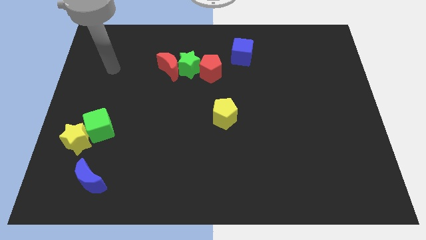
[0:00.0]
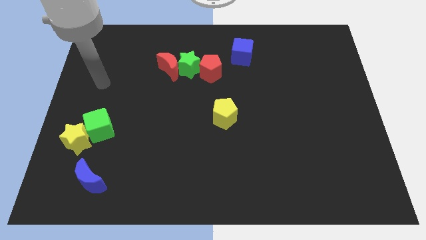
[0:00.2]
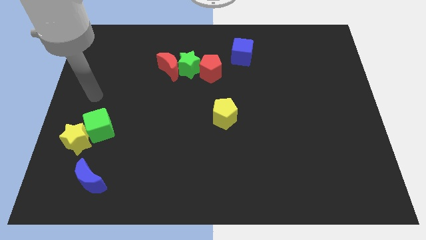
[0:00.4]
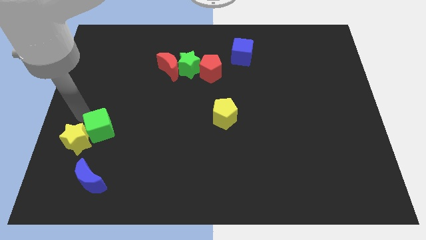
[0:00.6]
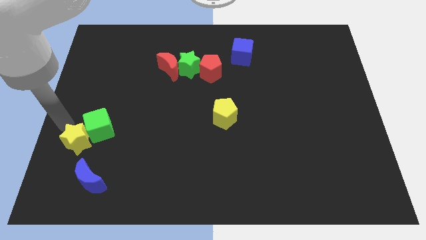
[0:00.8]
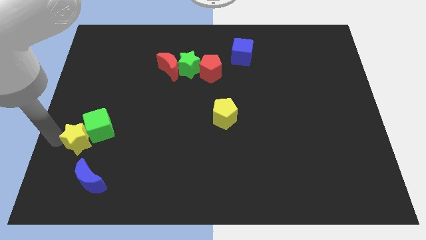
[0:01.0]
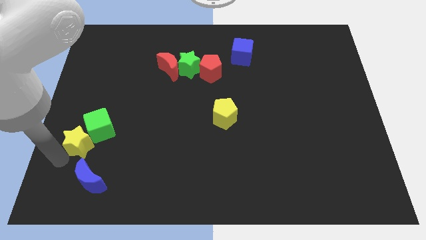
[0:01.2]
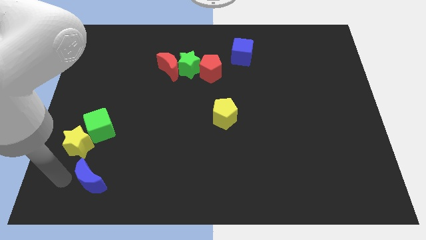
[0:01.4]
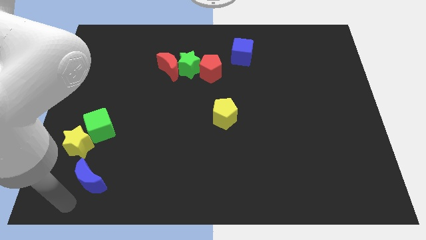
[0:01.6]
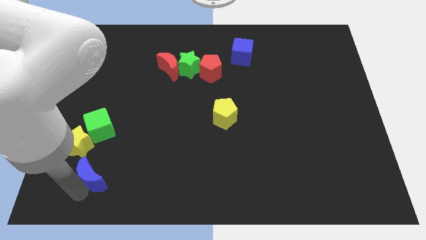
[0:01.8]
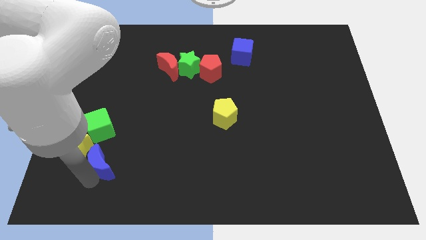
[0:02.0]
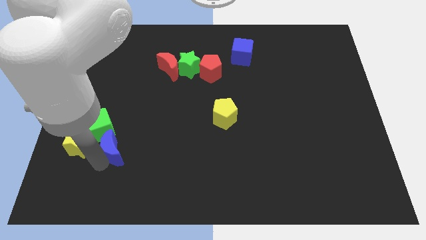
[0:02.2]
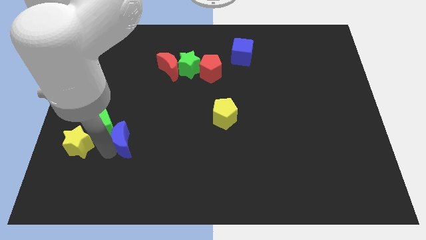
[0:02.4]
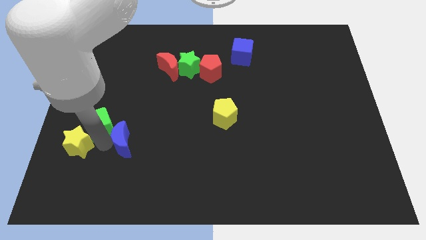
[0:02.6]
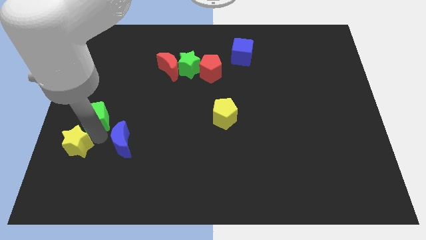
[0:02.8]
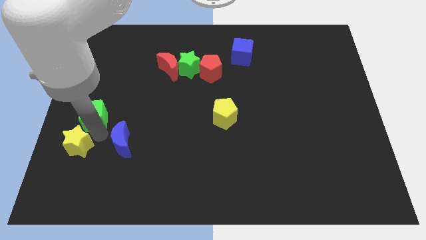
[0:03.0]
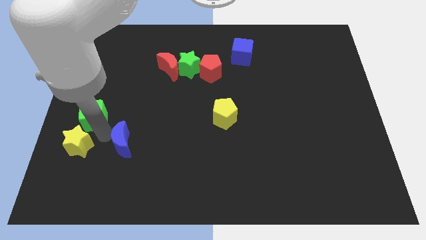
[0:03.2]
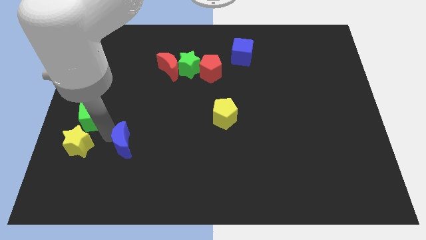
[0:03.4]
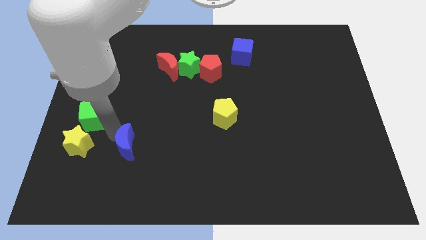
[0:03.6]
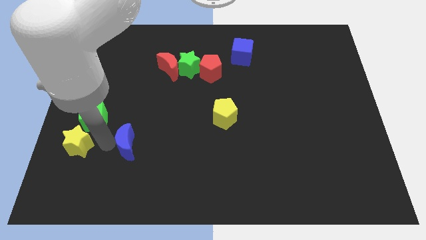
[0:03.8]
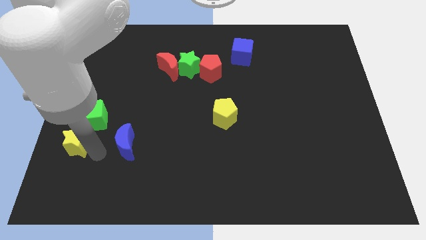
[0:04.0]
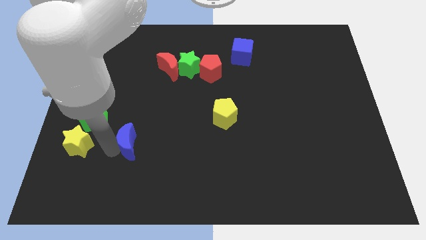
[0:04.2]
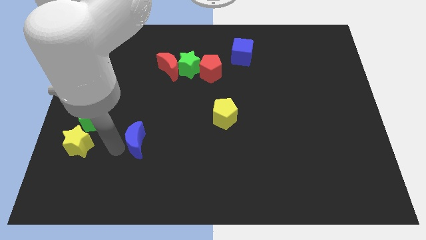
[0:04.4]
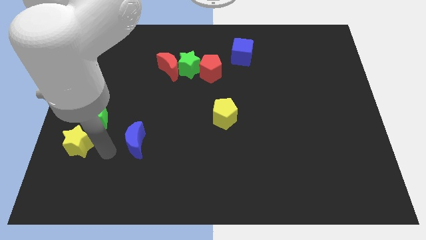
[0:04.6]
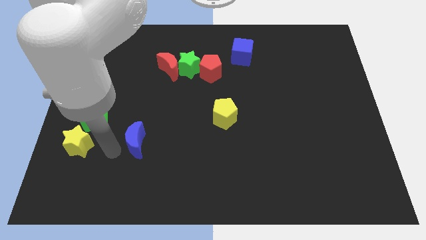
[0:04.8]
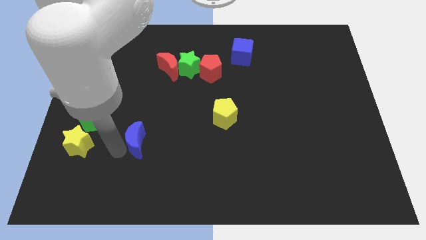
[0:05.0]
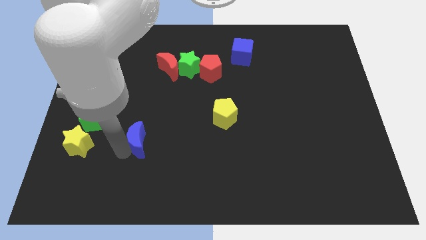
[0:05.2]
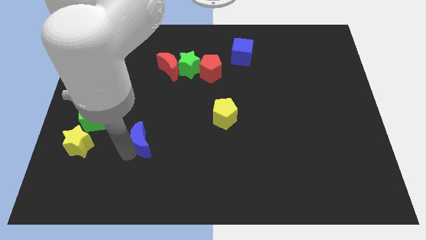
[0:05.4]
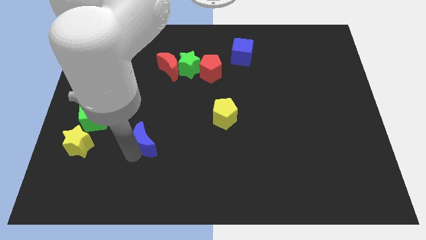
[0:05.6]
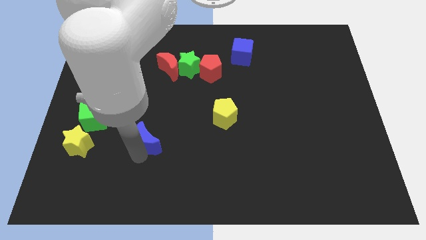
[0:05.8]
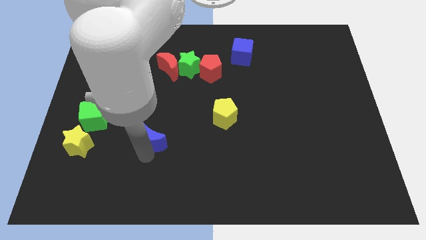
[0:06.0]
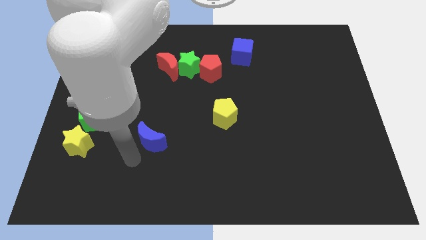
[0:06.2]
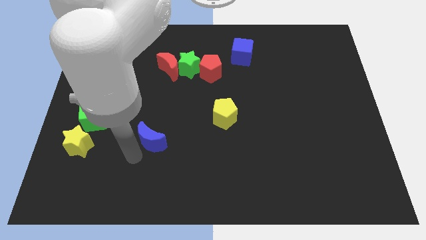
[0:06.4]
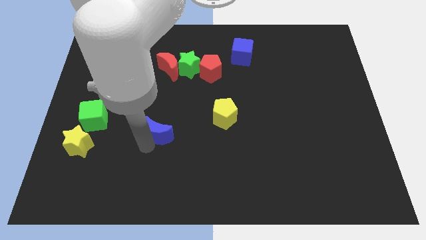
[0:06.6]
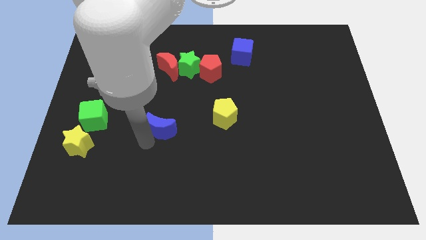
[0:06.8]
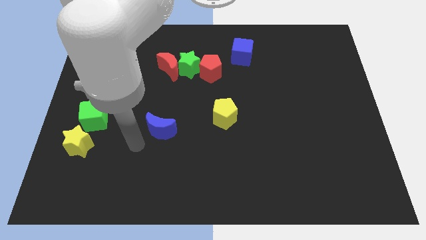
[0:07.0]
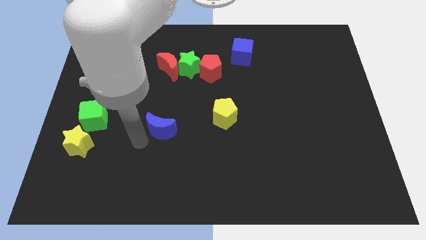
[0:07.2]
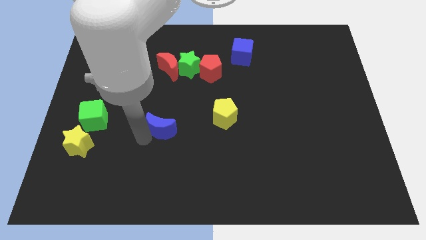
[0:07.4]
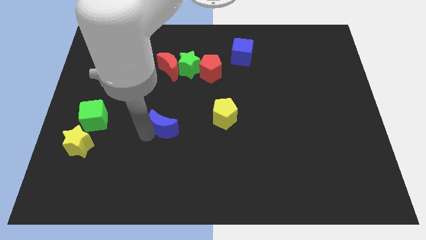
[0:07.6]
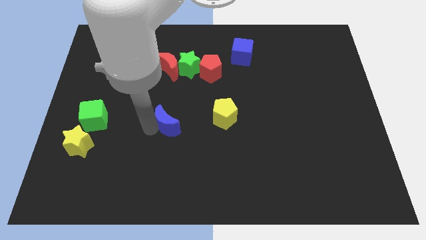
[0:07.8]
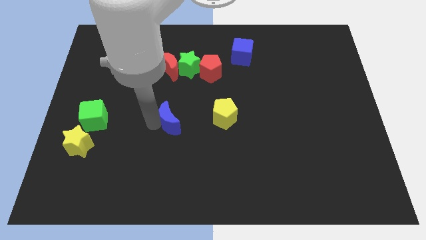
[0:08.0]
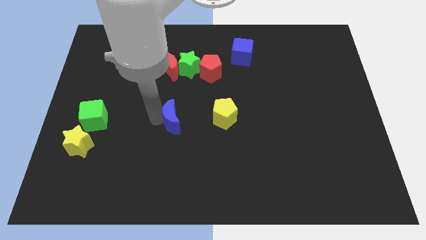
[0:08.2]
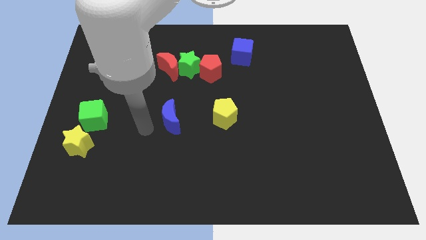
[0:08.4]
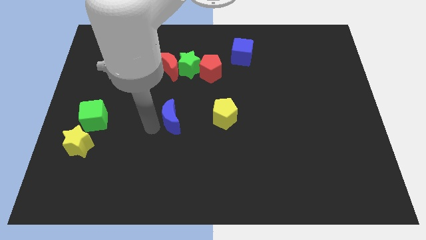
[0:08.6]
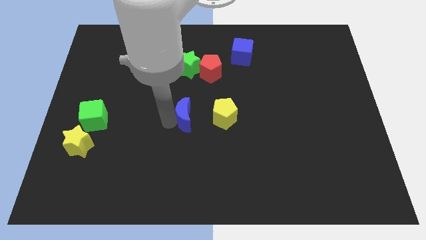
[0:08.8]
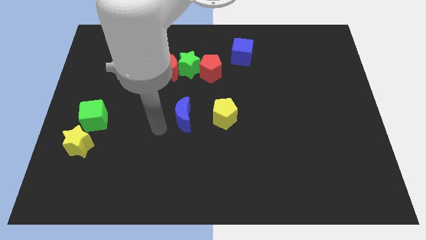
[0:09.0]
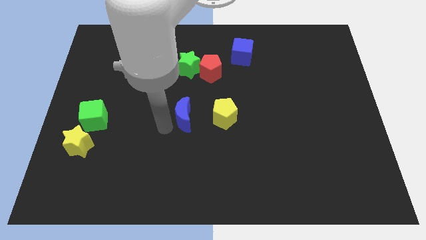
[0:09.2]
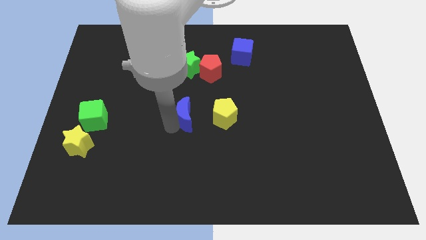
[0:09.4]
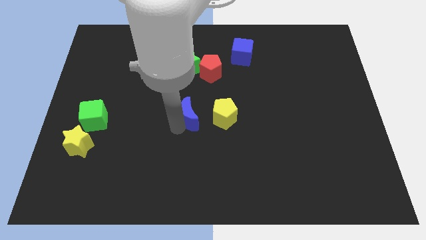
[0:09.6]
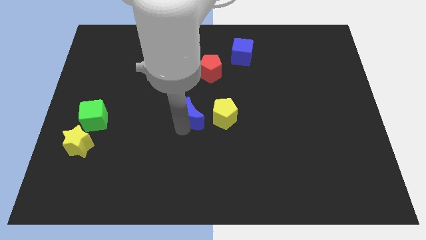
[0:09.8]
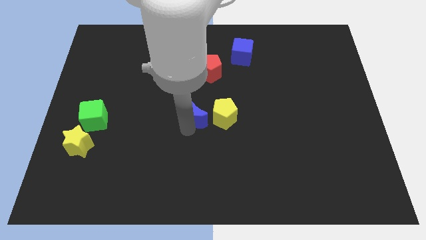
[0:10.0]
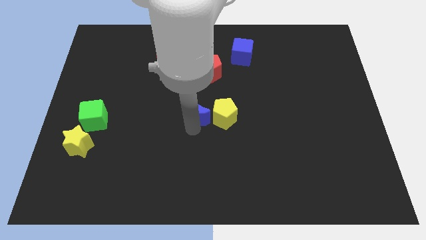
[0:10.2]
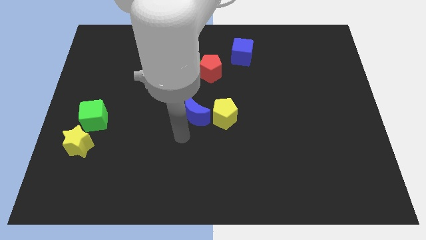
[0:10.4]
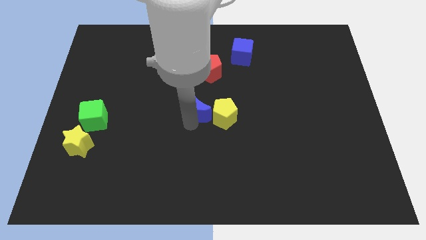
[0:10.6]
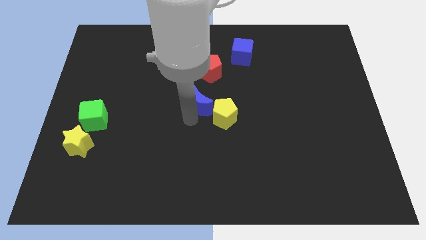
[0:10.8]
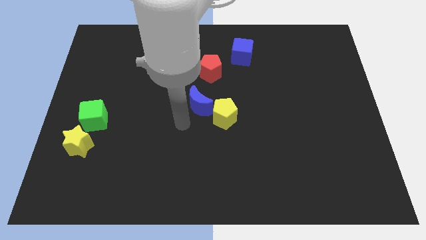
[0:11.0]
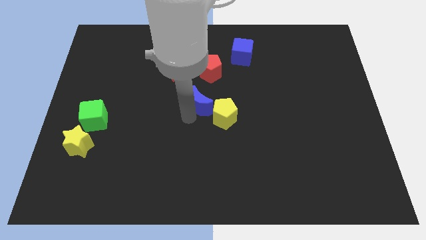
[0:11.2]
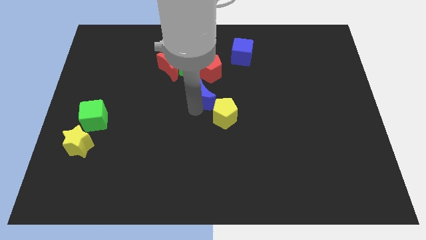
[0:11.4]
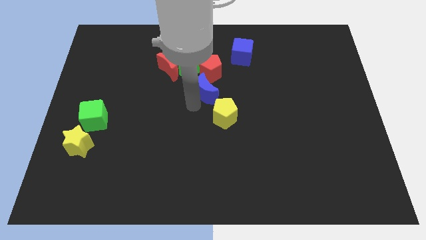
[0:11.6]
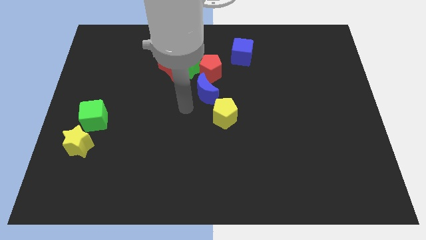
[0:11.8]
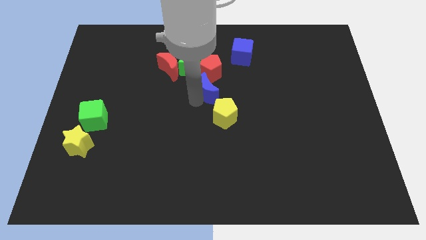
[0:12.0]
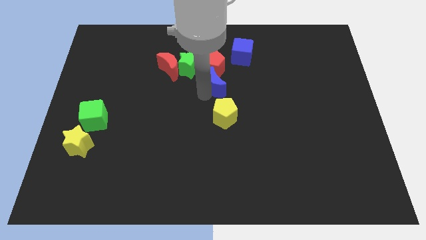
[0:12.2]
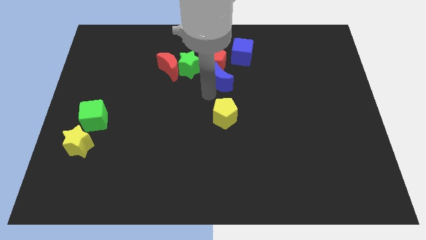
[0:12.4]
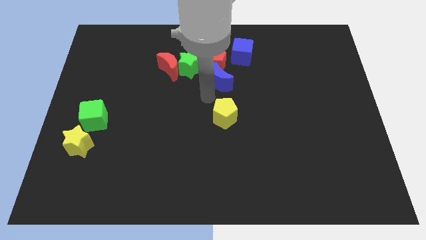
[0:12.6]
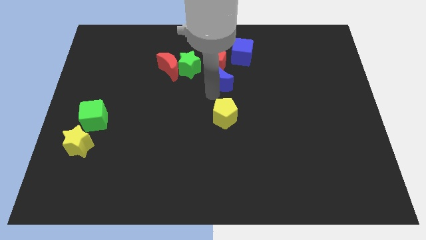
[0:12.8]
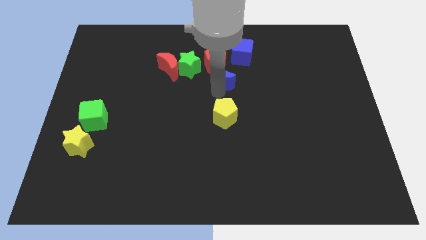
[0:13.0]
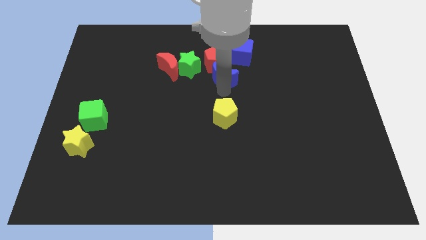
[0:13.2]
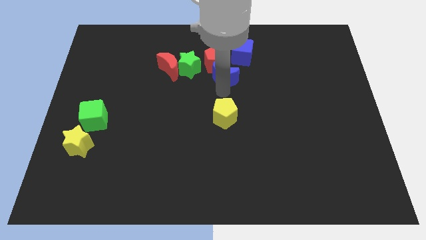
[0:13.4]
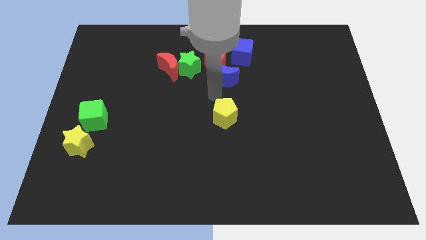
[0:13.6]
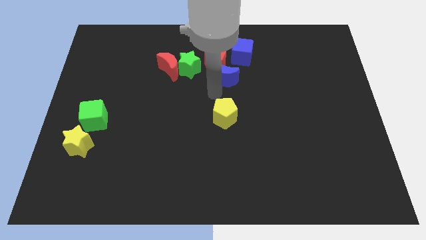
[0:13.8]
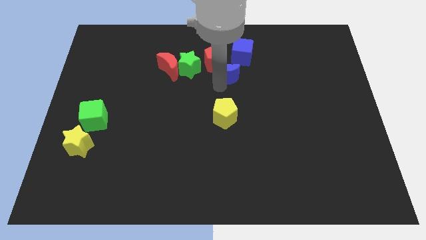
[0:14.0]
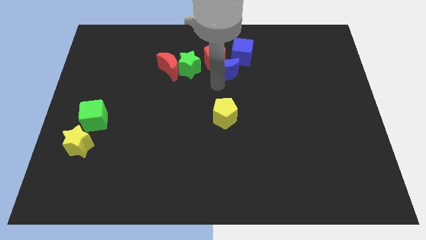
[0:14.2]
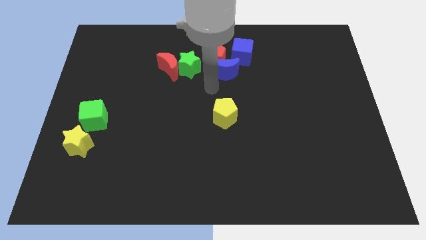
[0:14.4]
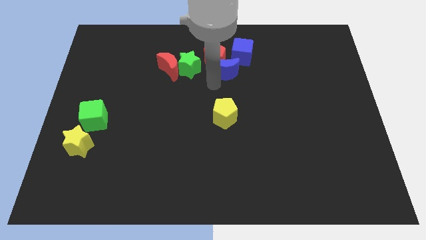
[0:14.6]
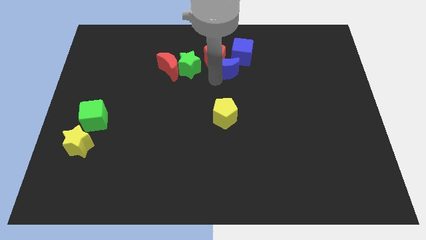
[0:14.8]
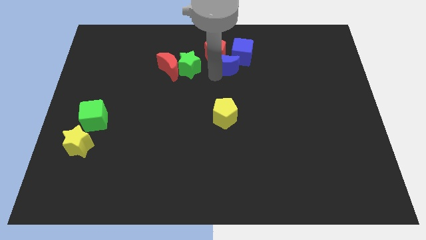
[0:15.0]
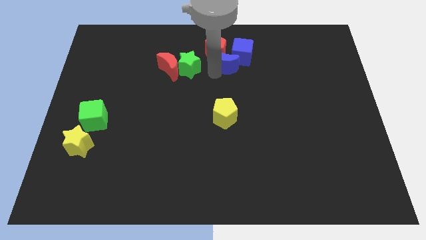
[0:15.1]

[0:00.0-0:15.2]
put the blue moon close to the blue cube
